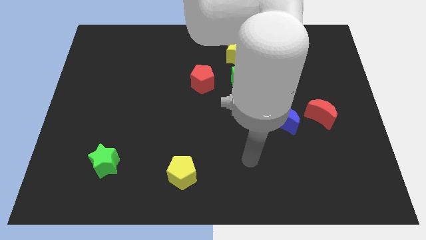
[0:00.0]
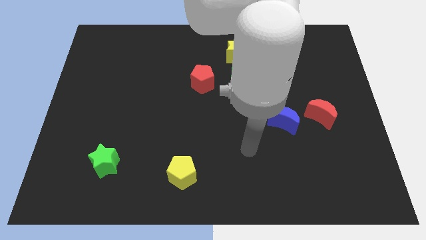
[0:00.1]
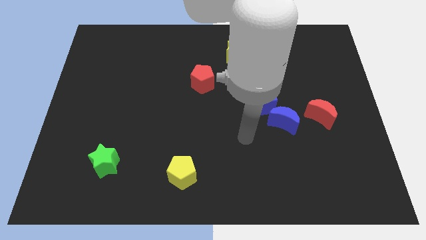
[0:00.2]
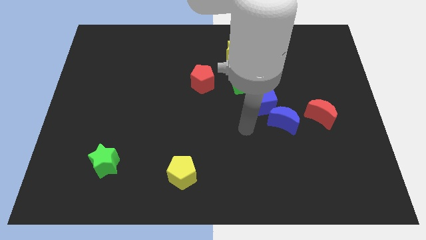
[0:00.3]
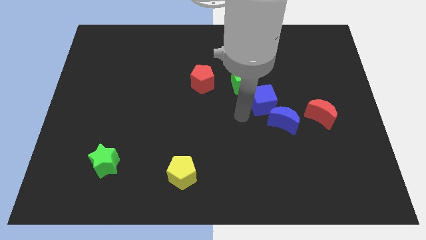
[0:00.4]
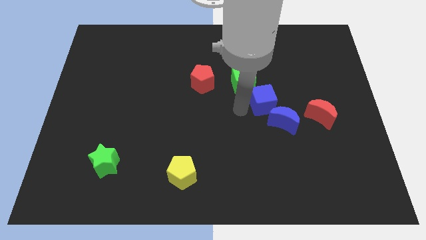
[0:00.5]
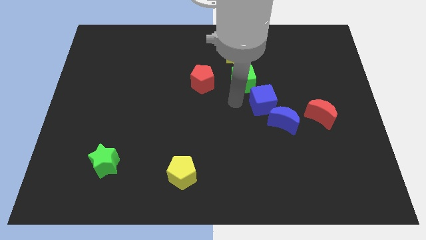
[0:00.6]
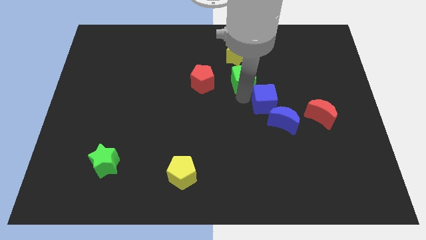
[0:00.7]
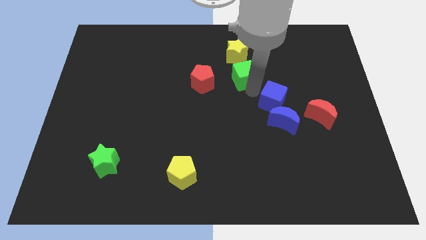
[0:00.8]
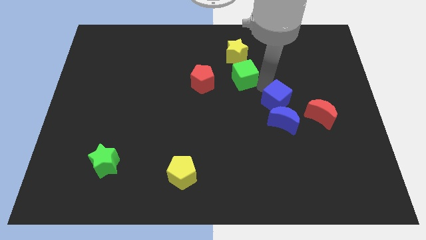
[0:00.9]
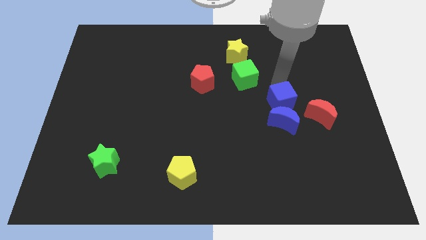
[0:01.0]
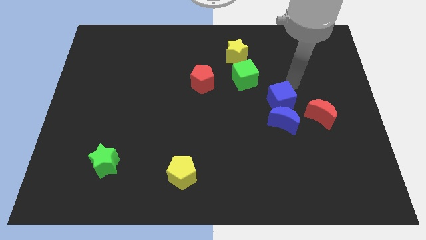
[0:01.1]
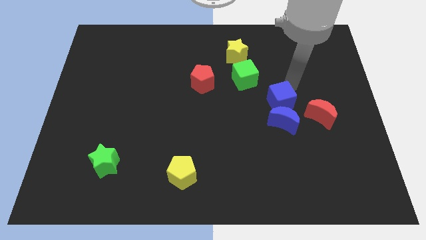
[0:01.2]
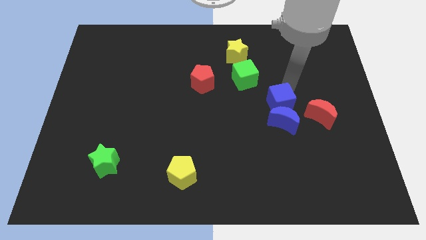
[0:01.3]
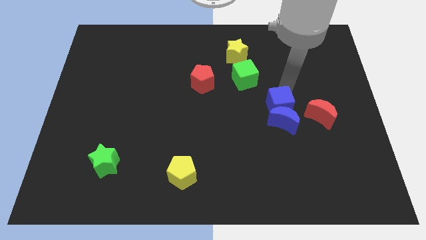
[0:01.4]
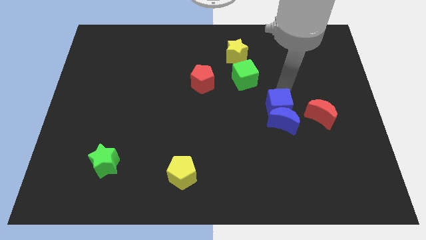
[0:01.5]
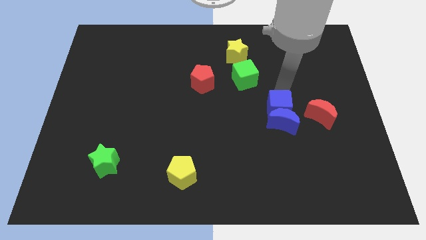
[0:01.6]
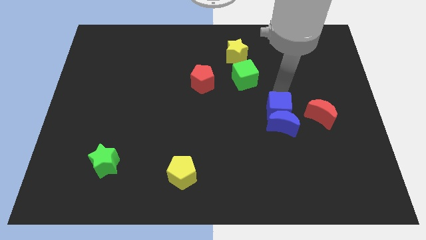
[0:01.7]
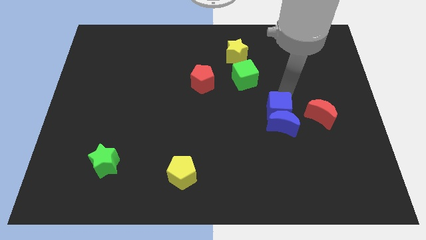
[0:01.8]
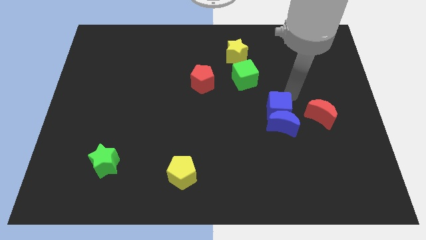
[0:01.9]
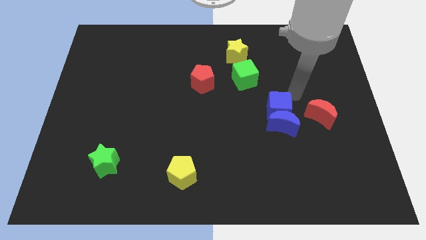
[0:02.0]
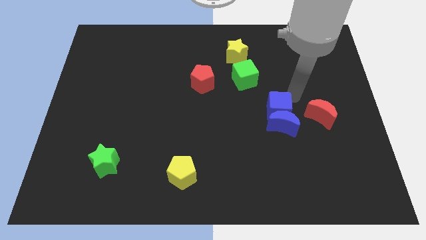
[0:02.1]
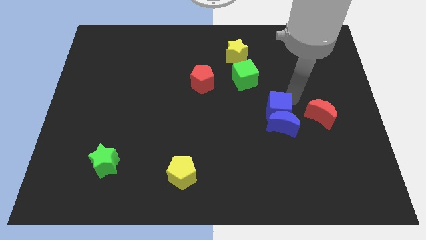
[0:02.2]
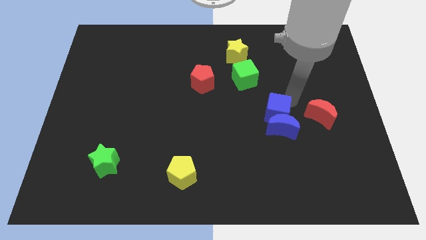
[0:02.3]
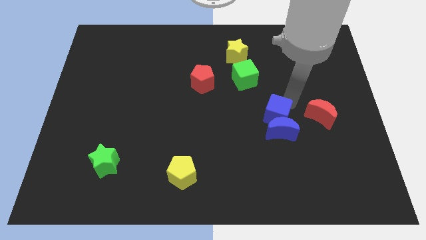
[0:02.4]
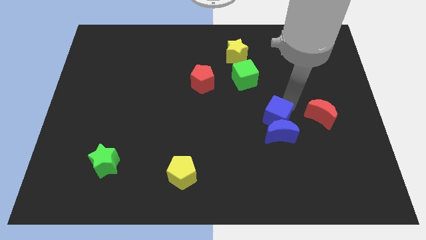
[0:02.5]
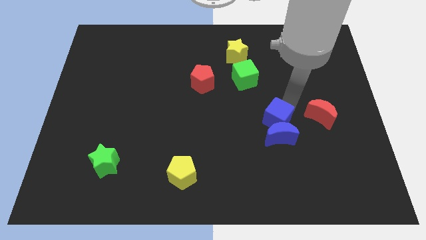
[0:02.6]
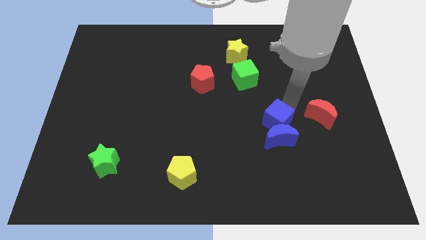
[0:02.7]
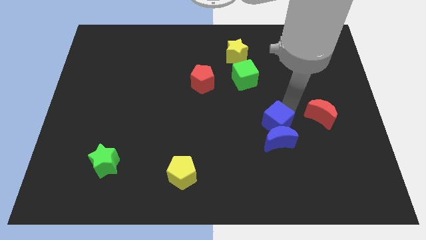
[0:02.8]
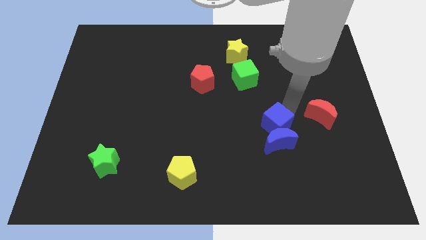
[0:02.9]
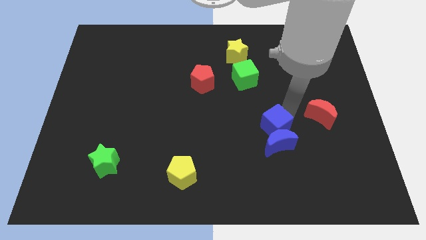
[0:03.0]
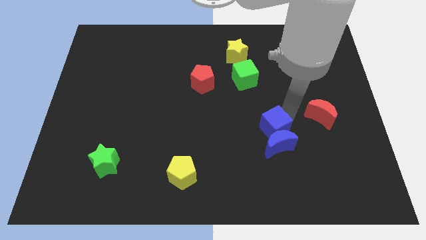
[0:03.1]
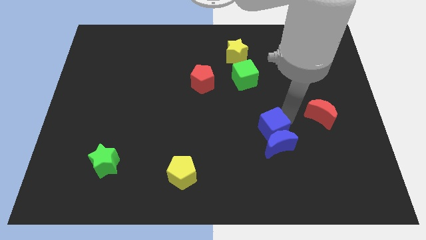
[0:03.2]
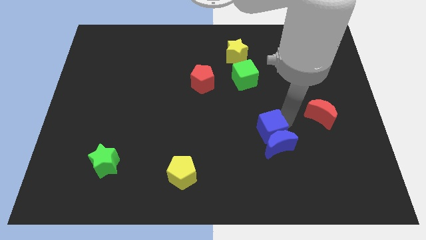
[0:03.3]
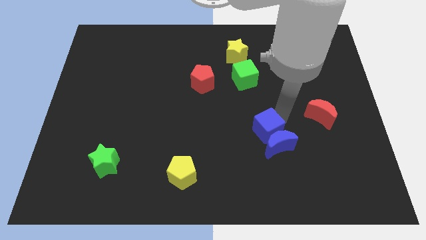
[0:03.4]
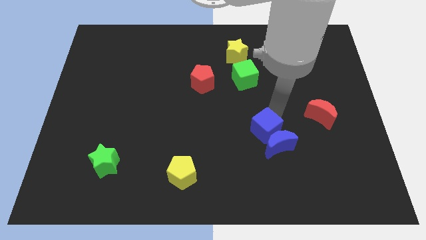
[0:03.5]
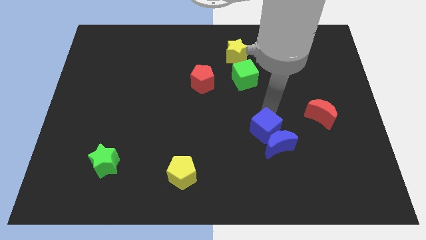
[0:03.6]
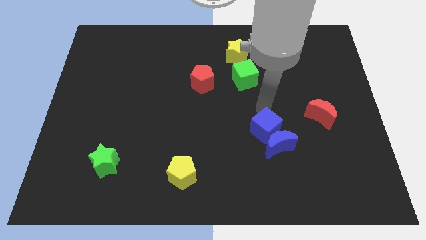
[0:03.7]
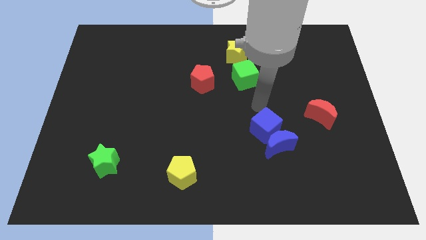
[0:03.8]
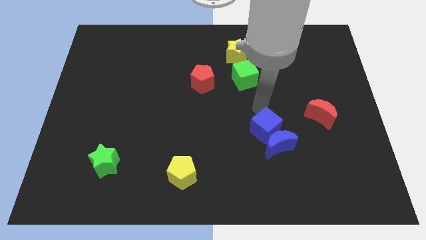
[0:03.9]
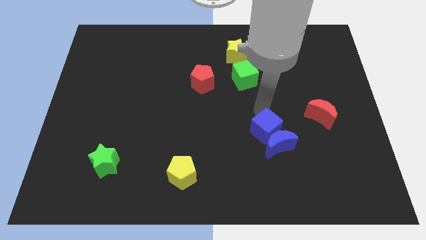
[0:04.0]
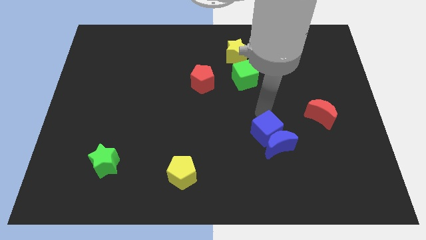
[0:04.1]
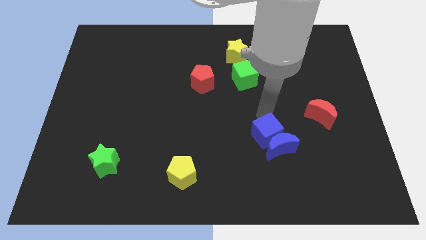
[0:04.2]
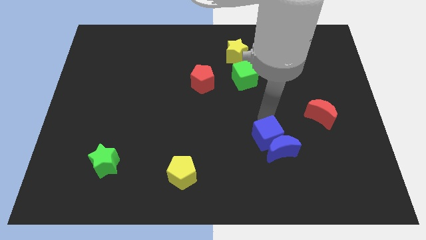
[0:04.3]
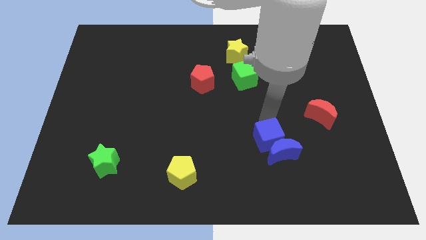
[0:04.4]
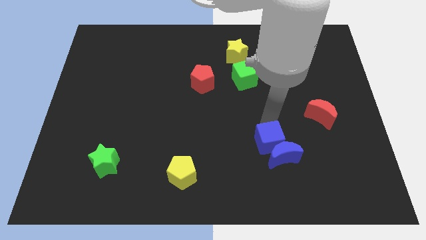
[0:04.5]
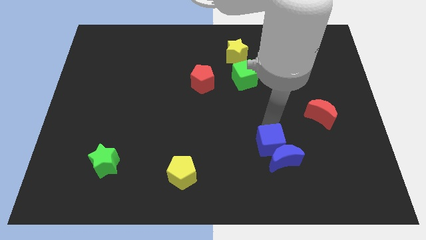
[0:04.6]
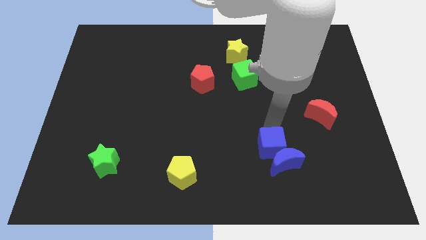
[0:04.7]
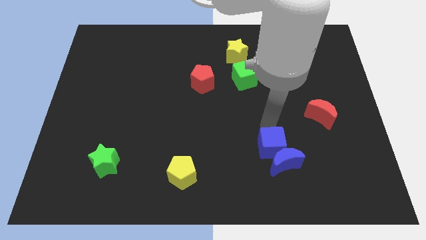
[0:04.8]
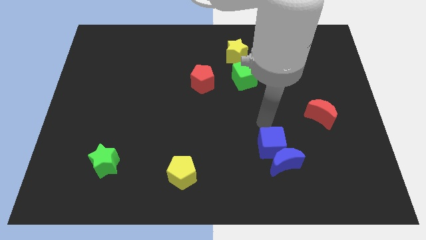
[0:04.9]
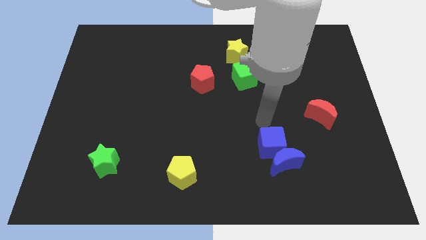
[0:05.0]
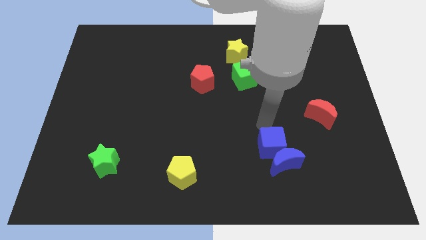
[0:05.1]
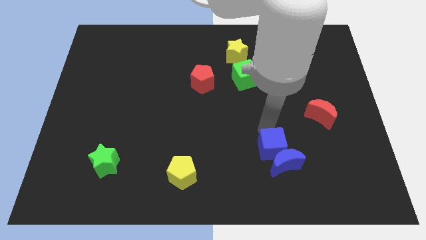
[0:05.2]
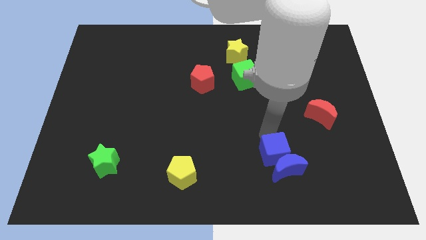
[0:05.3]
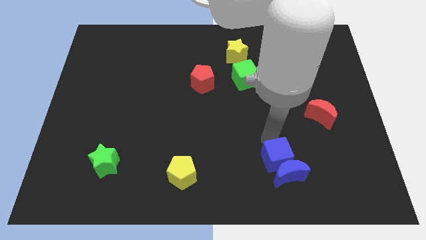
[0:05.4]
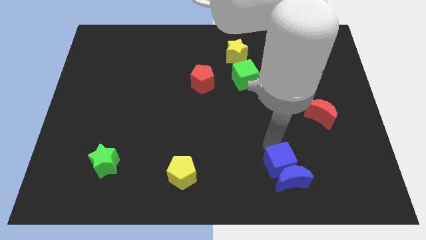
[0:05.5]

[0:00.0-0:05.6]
separate the blue cube from the blue moon and green cube

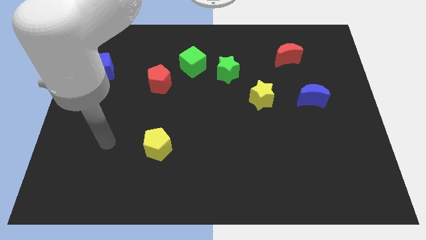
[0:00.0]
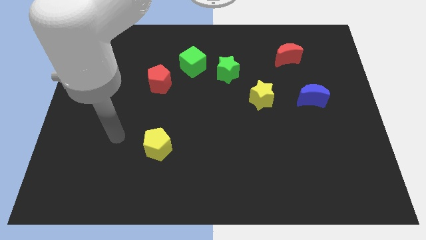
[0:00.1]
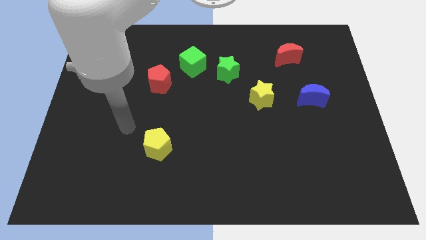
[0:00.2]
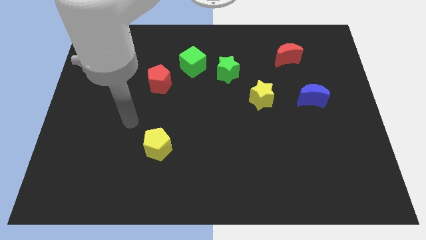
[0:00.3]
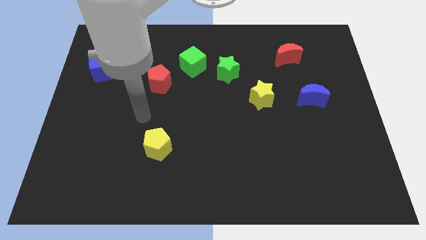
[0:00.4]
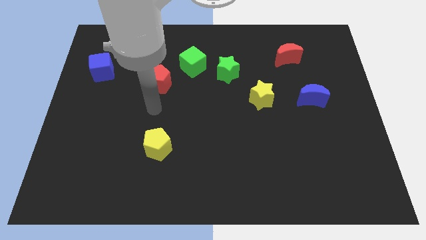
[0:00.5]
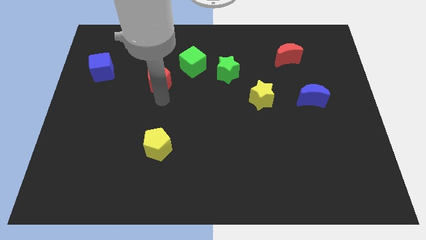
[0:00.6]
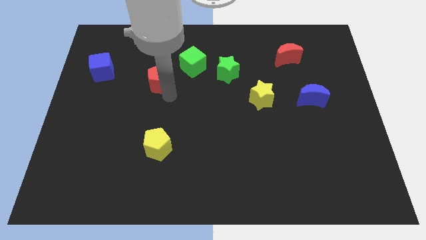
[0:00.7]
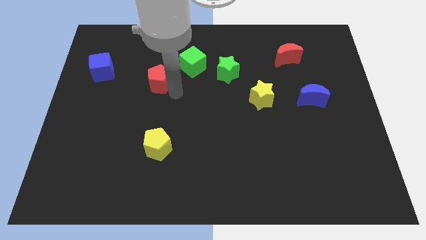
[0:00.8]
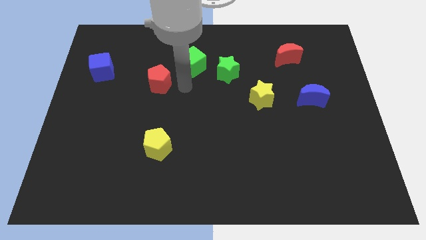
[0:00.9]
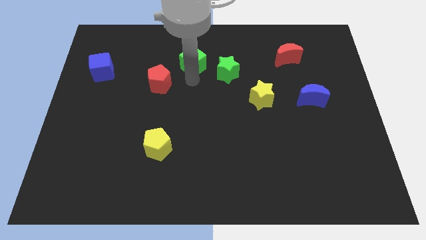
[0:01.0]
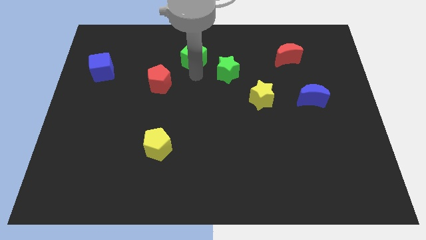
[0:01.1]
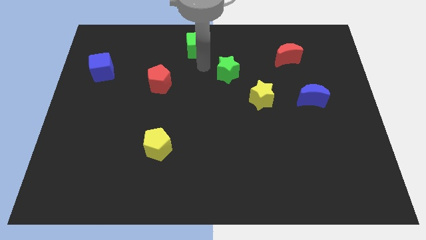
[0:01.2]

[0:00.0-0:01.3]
move the green star away from the green cube

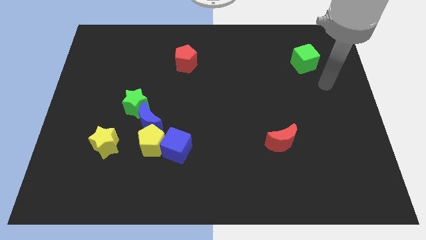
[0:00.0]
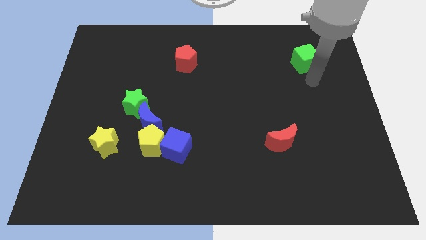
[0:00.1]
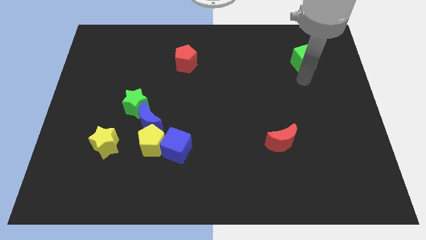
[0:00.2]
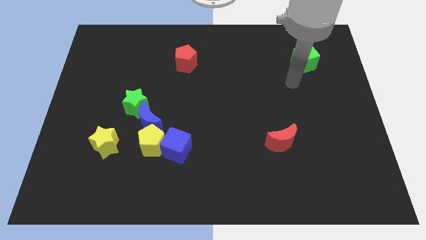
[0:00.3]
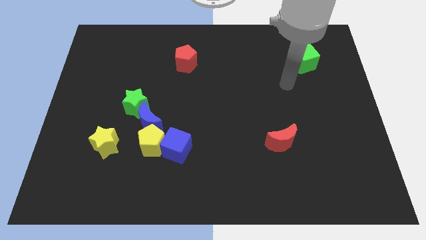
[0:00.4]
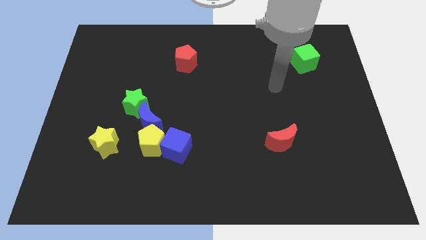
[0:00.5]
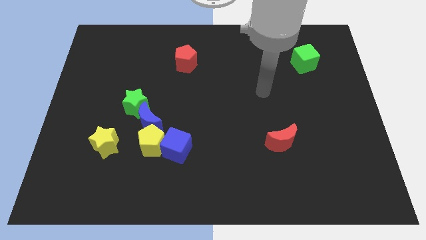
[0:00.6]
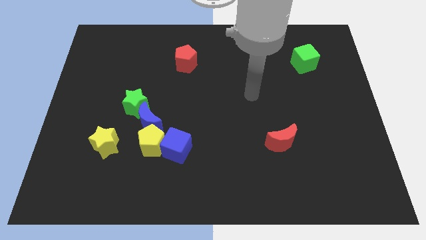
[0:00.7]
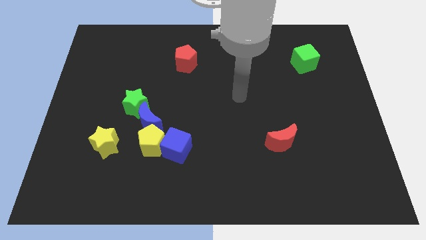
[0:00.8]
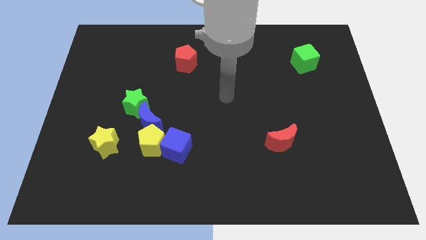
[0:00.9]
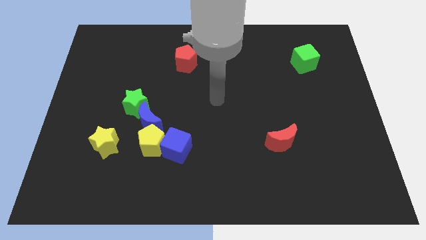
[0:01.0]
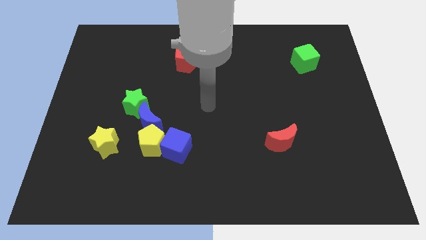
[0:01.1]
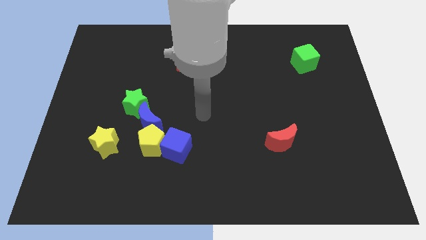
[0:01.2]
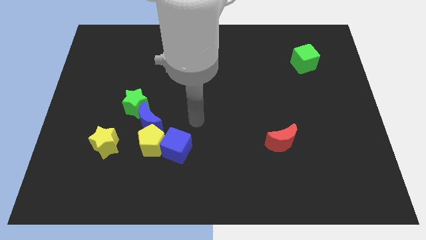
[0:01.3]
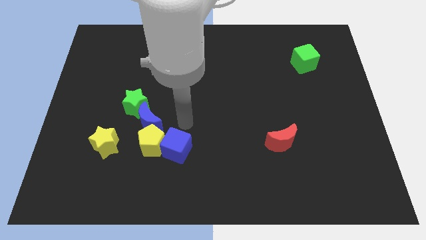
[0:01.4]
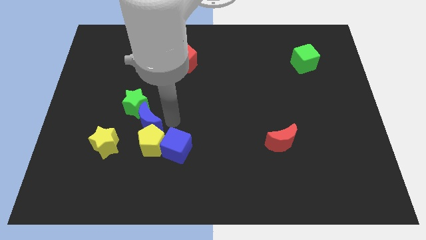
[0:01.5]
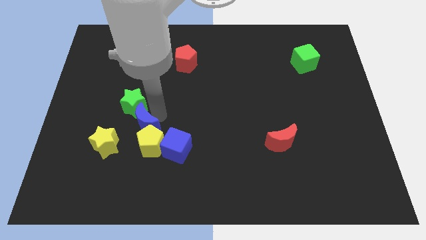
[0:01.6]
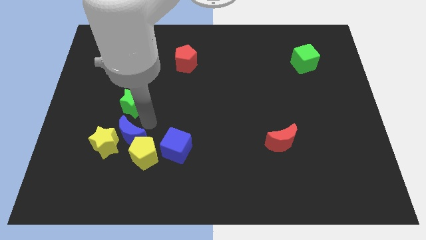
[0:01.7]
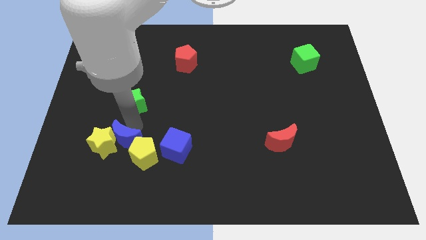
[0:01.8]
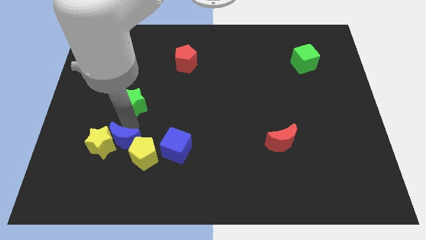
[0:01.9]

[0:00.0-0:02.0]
separate the green star from the blue moon

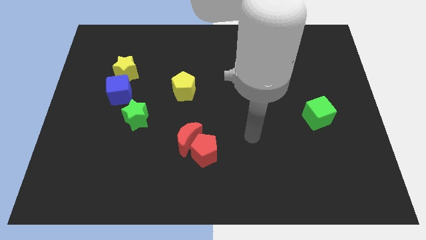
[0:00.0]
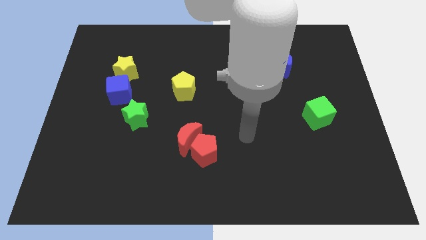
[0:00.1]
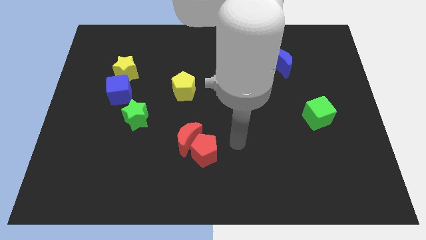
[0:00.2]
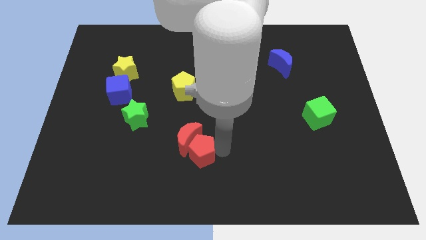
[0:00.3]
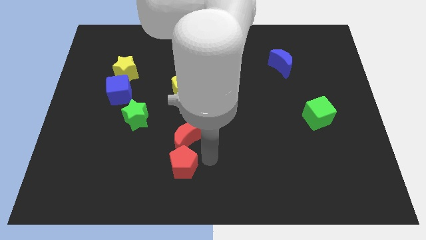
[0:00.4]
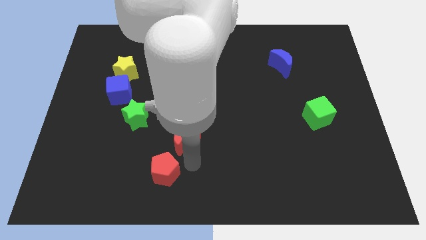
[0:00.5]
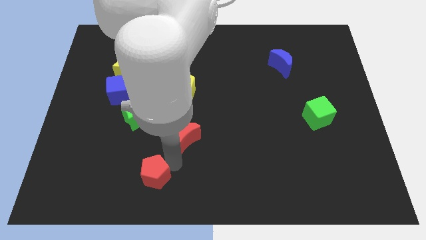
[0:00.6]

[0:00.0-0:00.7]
separate the red moon from the red pentagon
